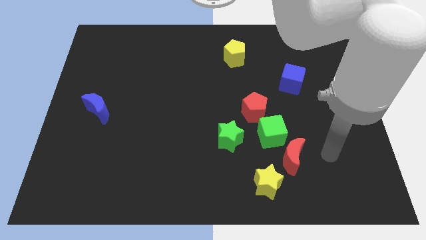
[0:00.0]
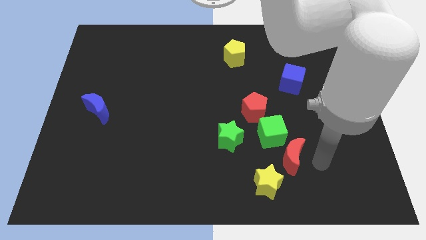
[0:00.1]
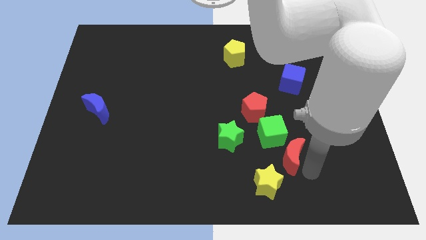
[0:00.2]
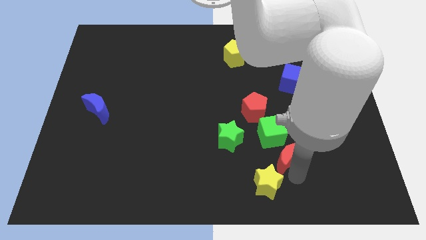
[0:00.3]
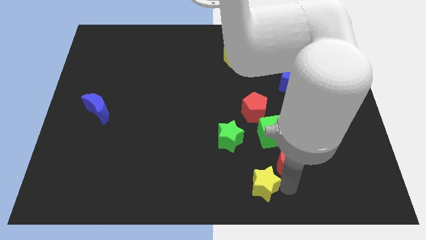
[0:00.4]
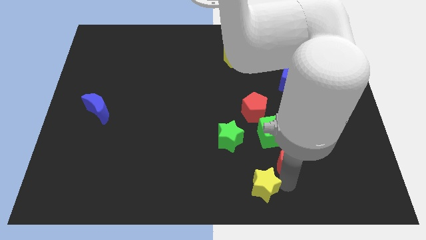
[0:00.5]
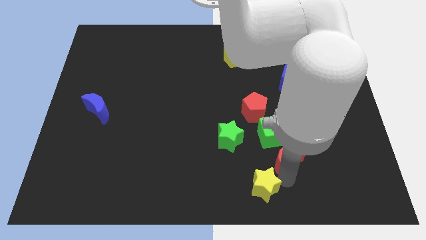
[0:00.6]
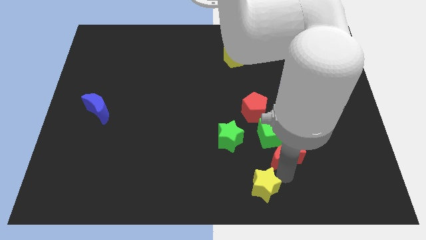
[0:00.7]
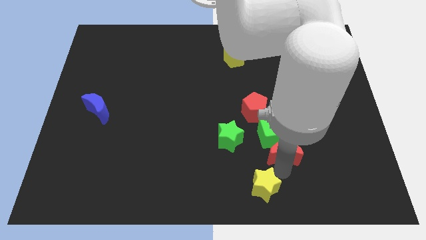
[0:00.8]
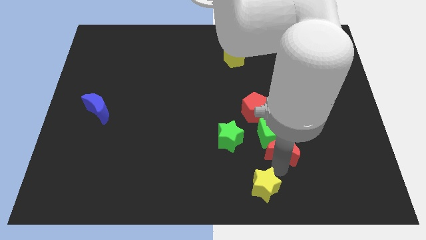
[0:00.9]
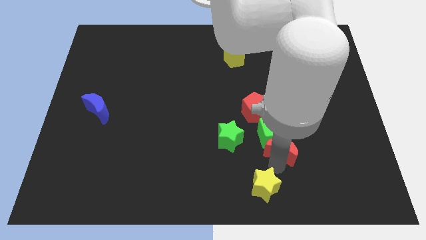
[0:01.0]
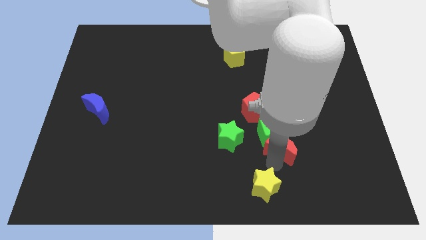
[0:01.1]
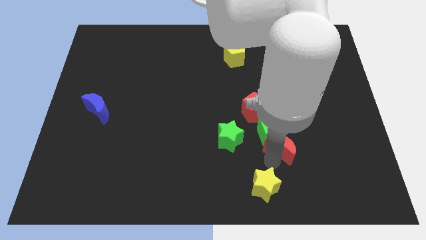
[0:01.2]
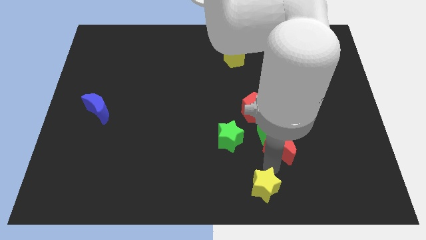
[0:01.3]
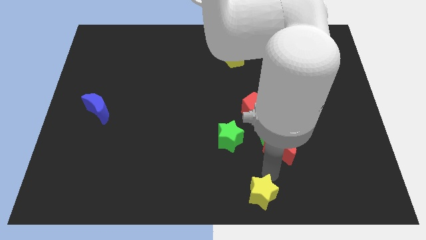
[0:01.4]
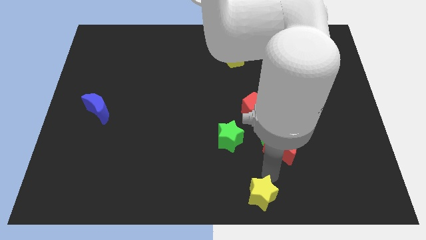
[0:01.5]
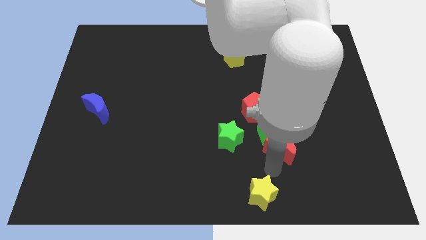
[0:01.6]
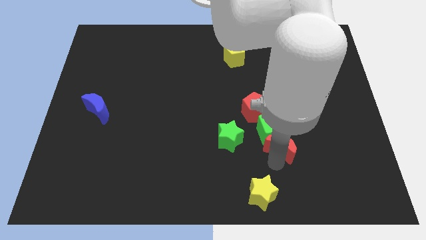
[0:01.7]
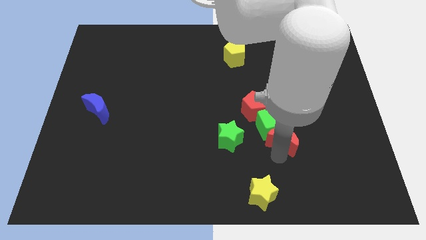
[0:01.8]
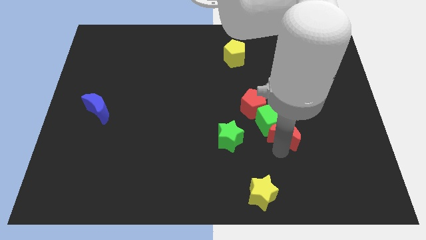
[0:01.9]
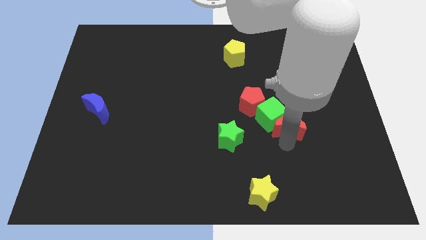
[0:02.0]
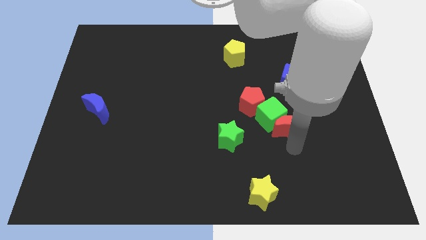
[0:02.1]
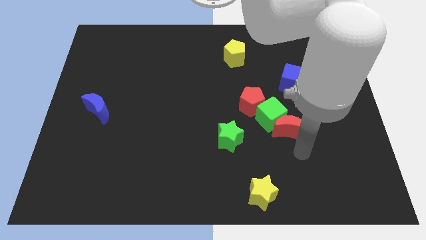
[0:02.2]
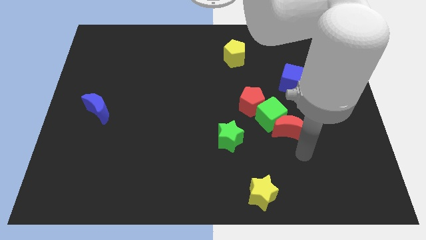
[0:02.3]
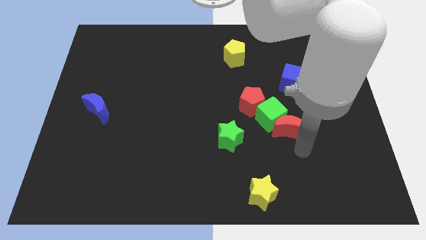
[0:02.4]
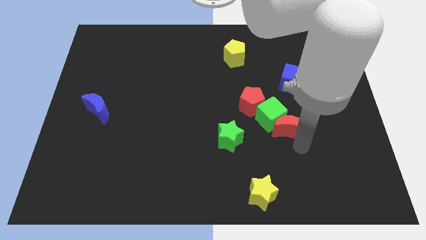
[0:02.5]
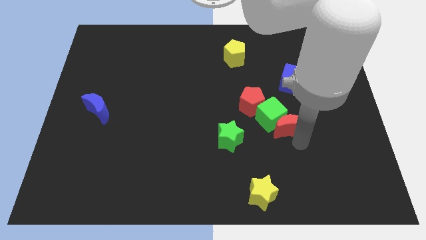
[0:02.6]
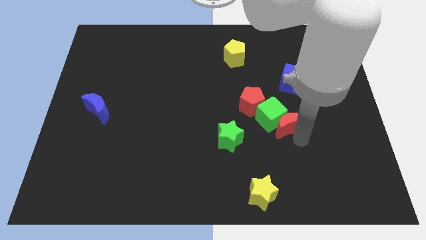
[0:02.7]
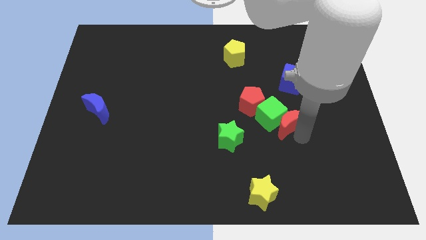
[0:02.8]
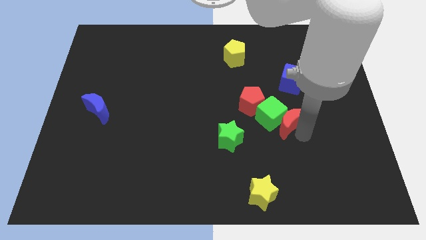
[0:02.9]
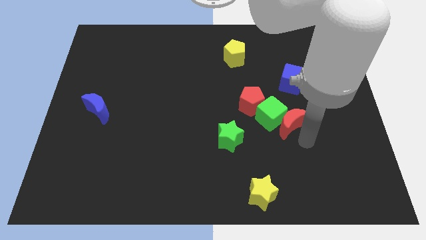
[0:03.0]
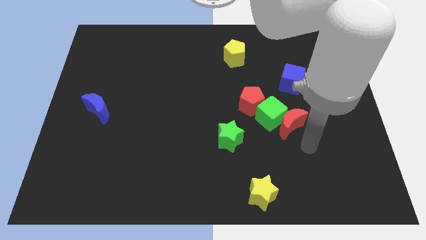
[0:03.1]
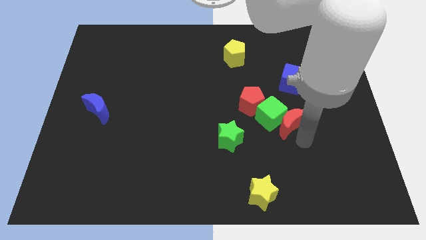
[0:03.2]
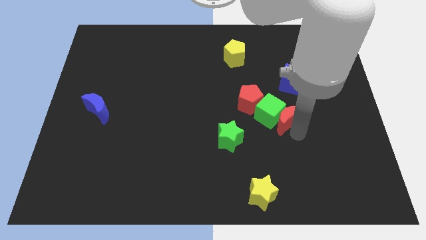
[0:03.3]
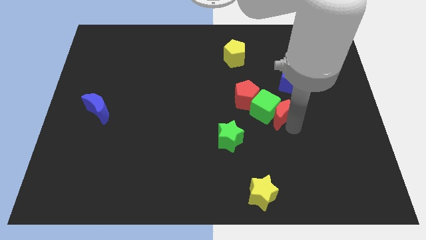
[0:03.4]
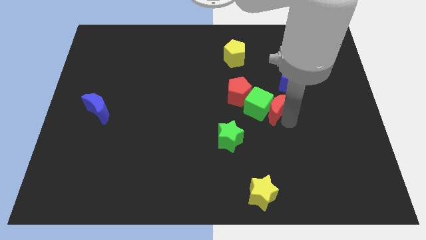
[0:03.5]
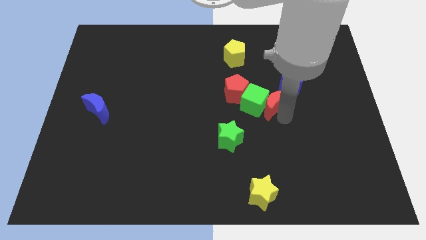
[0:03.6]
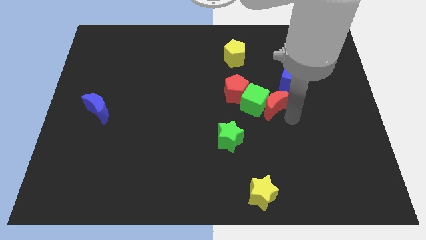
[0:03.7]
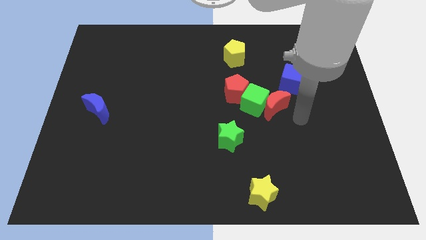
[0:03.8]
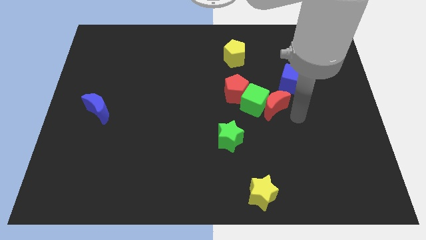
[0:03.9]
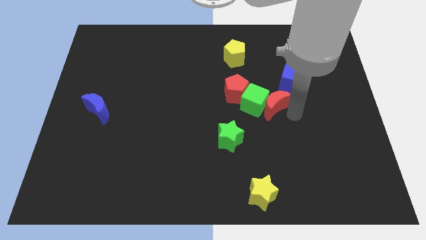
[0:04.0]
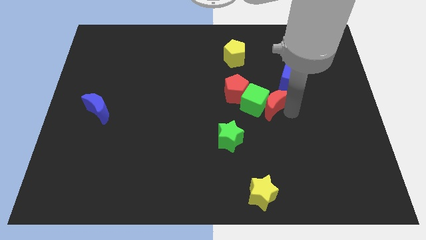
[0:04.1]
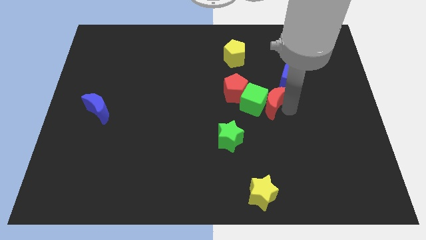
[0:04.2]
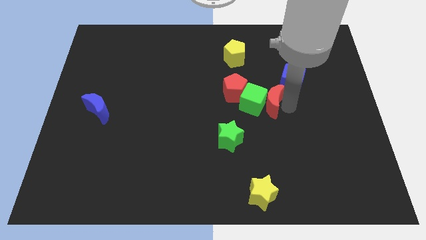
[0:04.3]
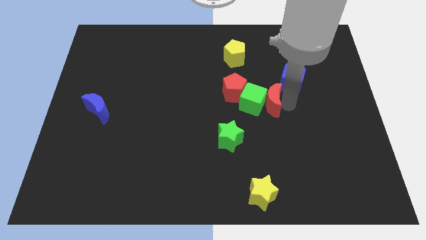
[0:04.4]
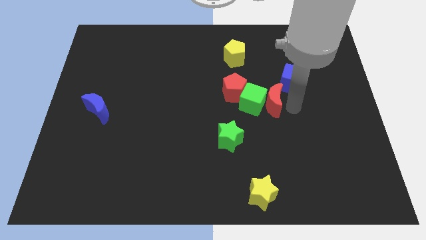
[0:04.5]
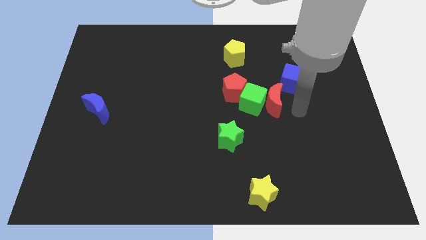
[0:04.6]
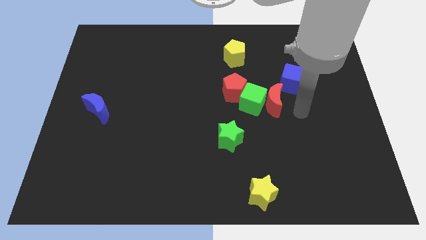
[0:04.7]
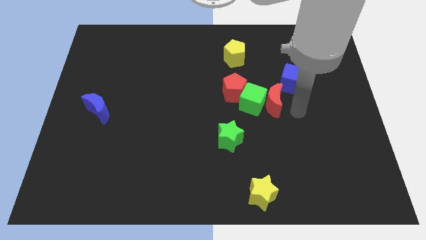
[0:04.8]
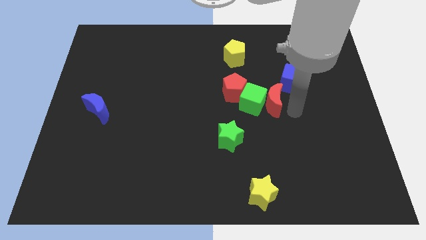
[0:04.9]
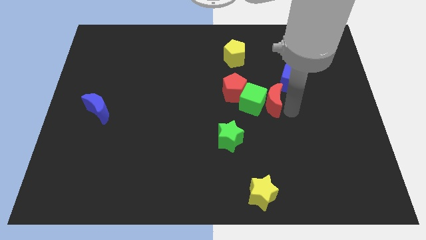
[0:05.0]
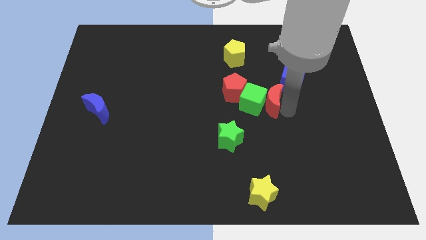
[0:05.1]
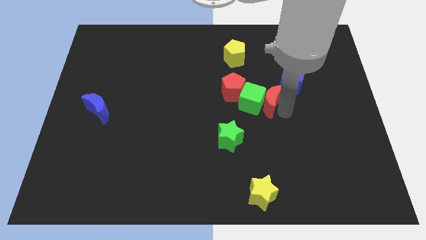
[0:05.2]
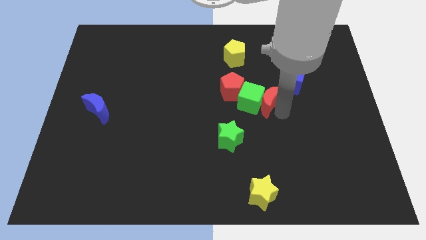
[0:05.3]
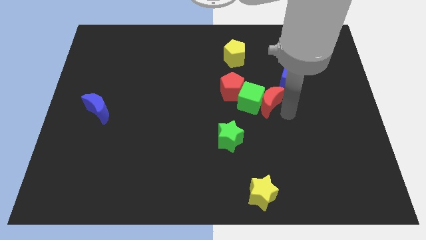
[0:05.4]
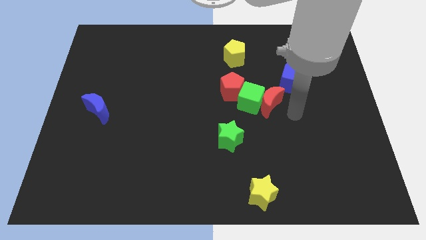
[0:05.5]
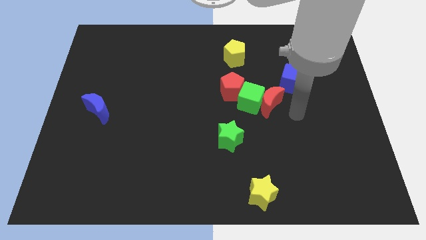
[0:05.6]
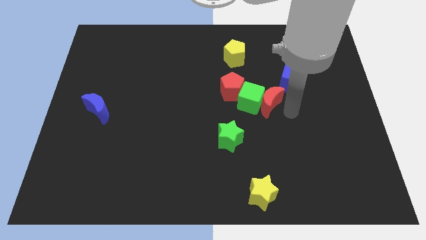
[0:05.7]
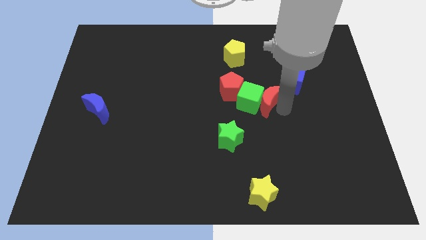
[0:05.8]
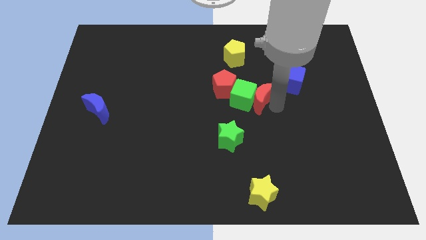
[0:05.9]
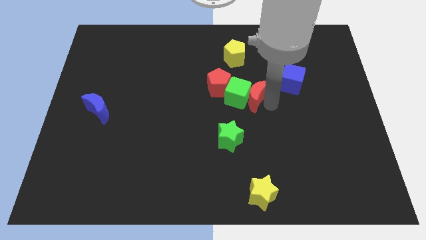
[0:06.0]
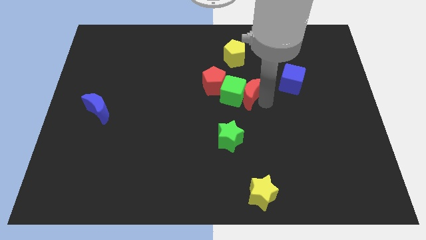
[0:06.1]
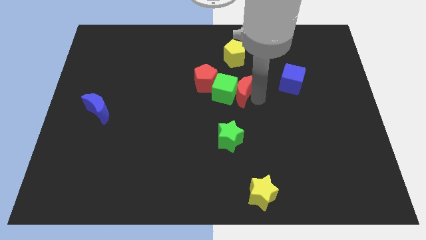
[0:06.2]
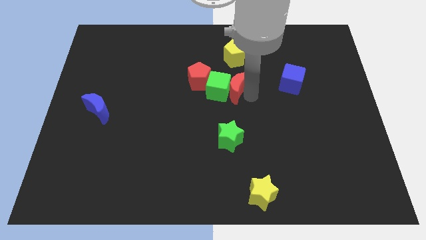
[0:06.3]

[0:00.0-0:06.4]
slide the red moon up and to the left diagonally

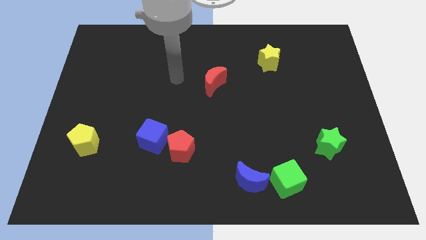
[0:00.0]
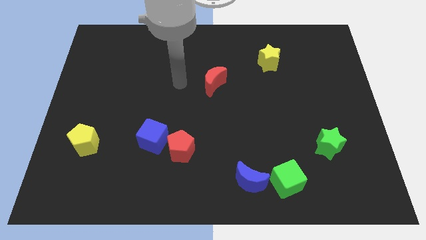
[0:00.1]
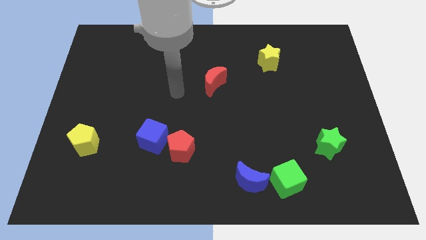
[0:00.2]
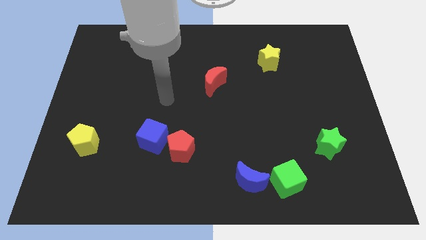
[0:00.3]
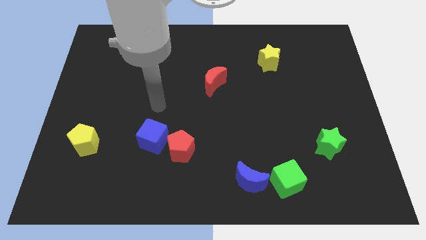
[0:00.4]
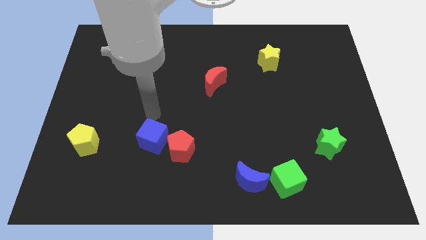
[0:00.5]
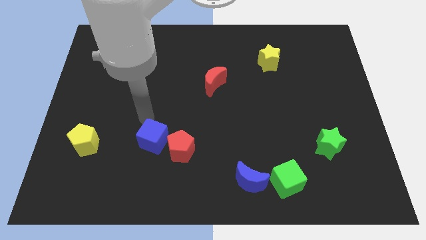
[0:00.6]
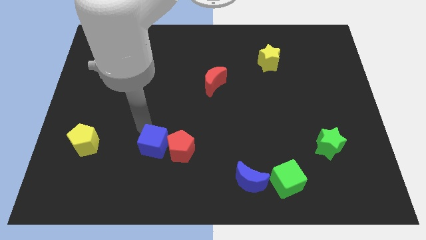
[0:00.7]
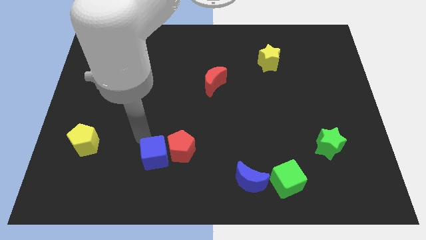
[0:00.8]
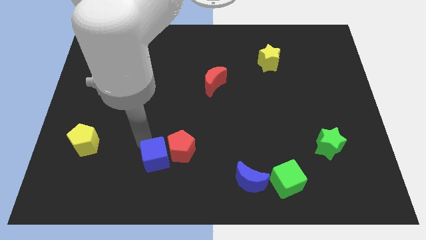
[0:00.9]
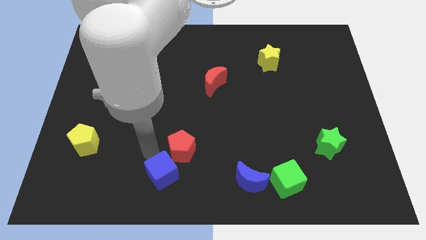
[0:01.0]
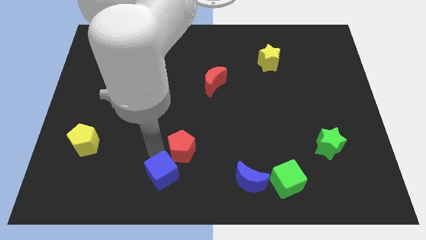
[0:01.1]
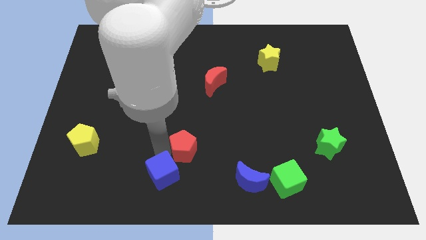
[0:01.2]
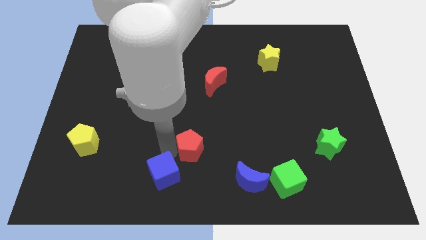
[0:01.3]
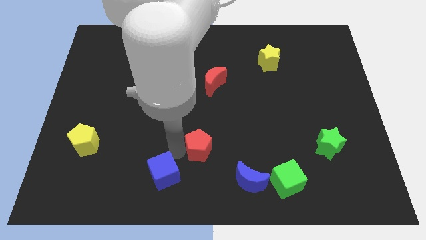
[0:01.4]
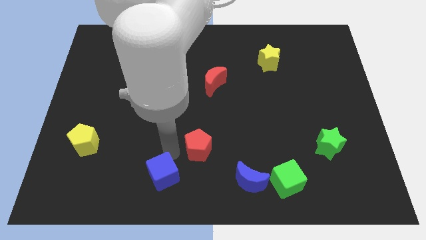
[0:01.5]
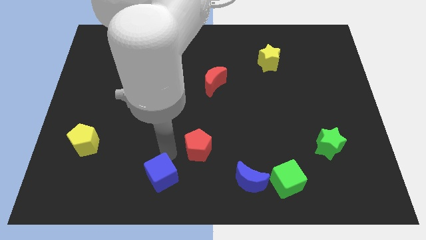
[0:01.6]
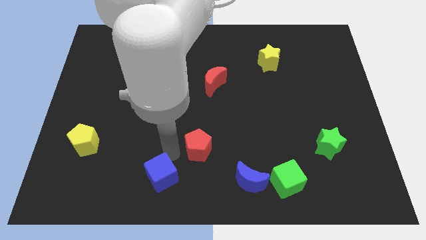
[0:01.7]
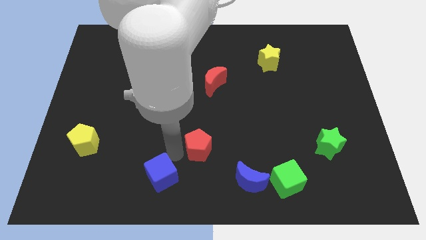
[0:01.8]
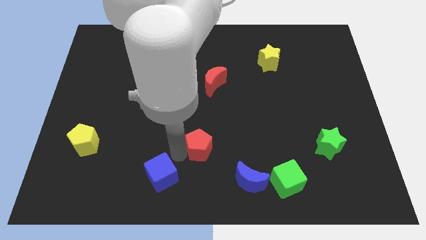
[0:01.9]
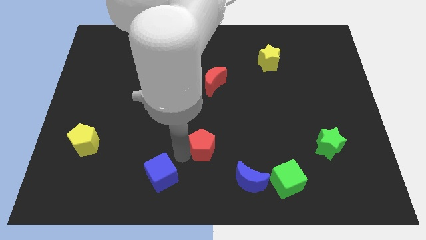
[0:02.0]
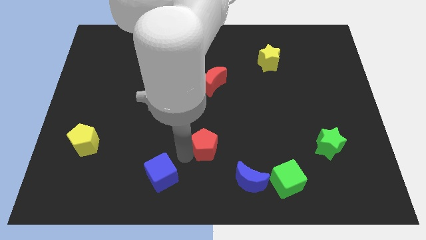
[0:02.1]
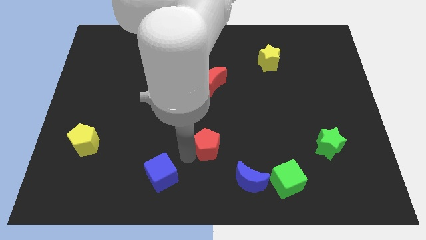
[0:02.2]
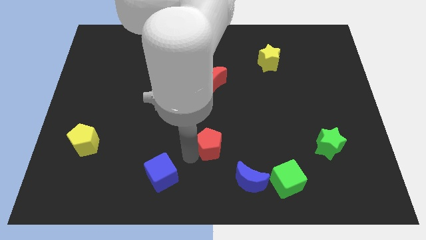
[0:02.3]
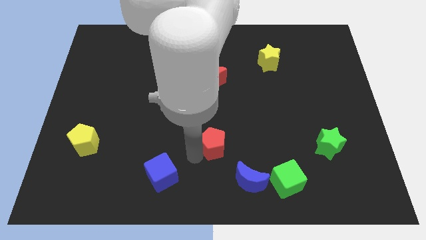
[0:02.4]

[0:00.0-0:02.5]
slide the red pentagon a little bit to the right
